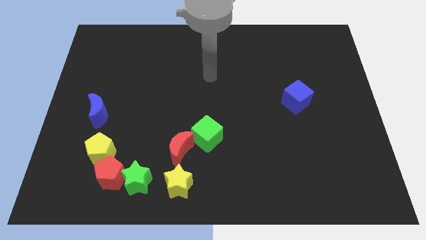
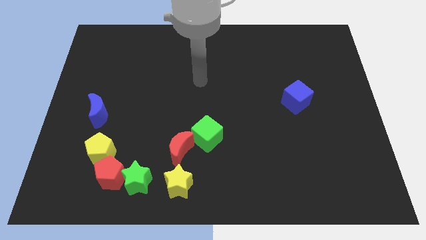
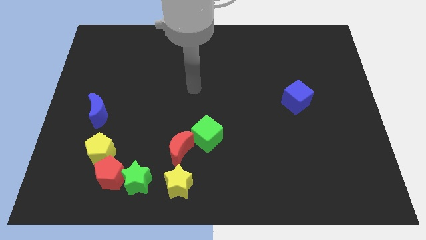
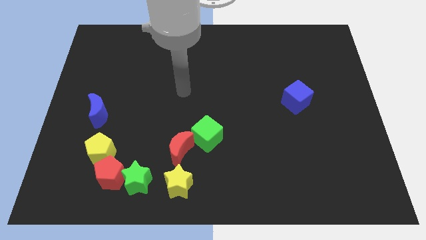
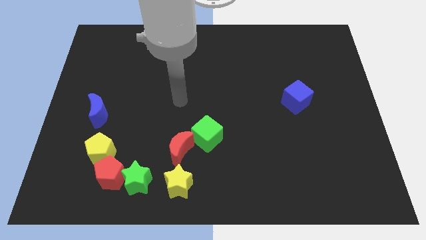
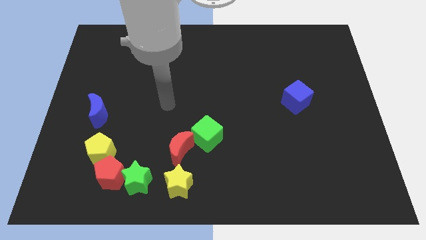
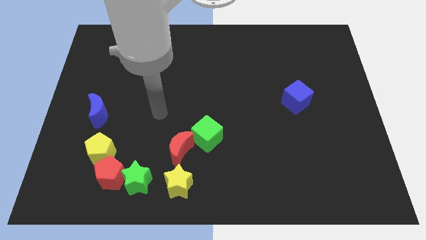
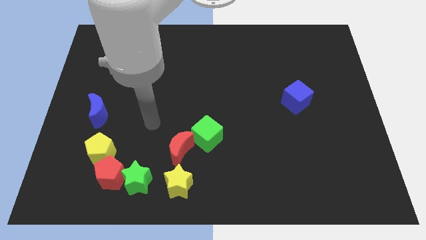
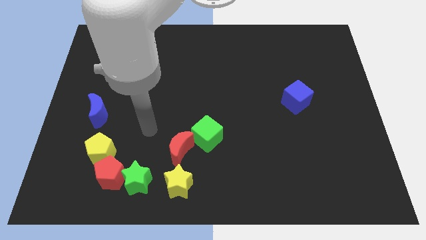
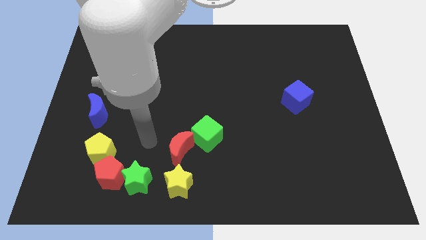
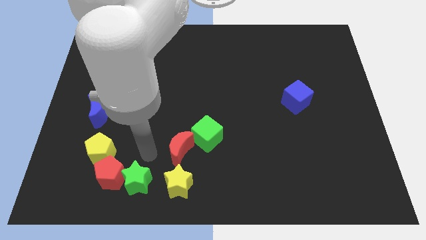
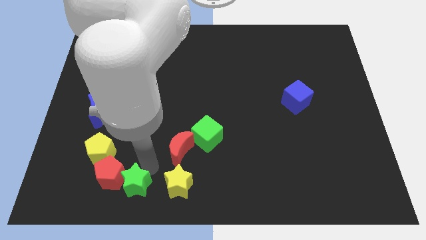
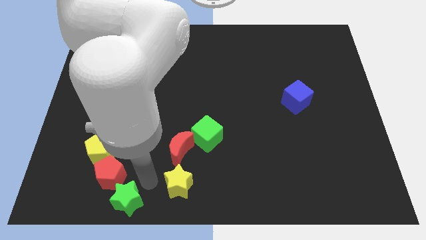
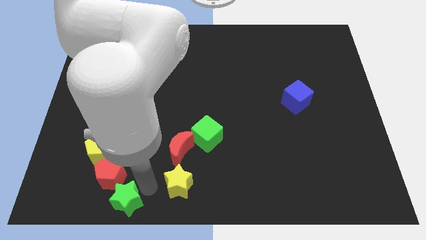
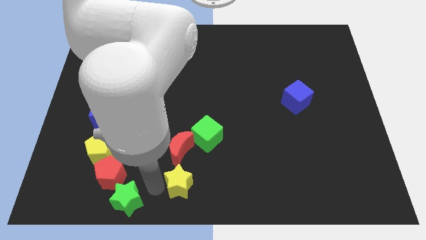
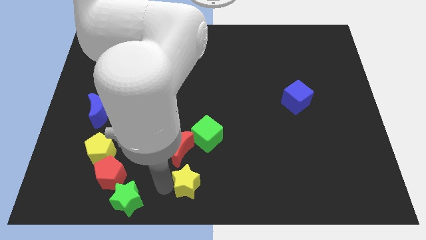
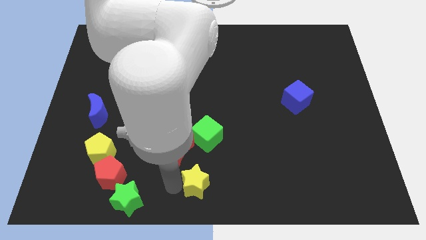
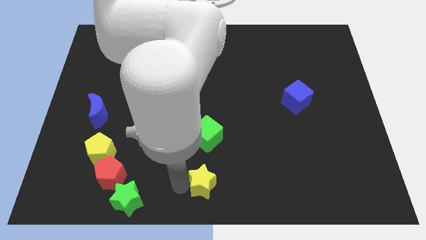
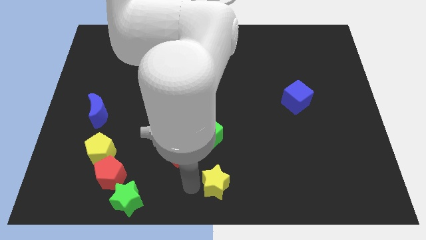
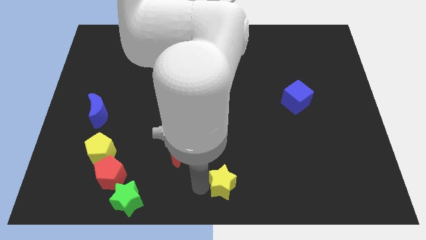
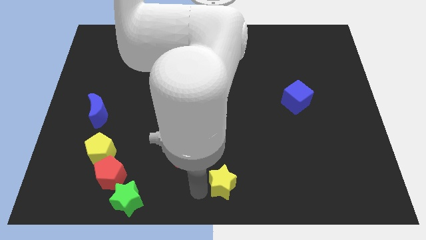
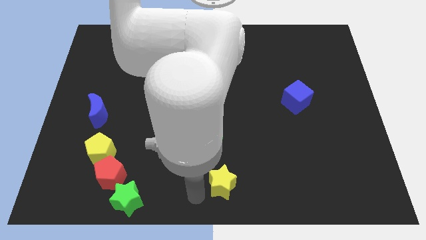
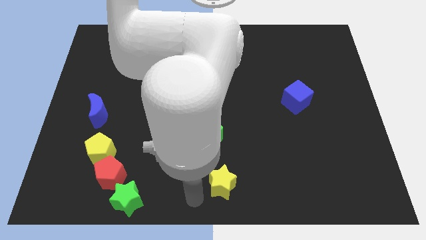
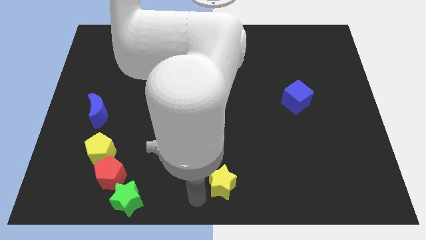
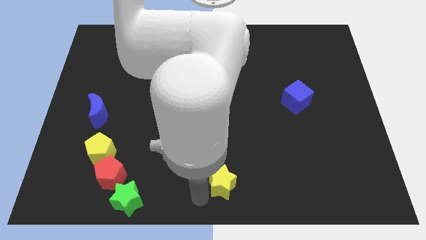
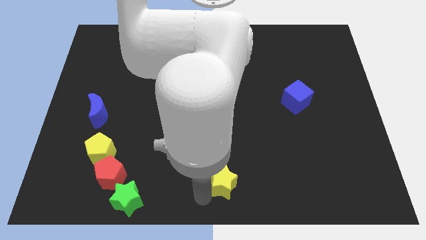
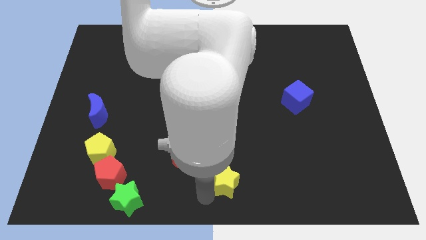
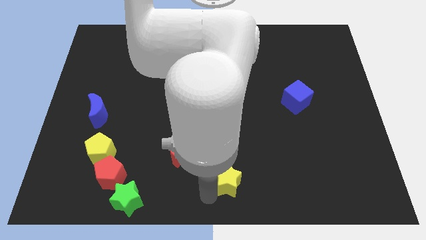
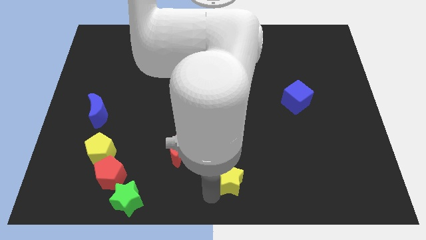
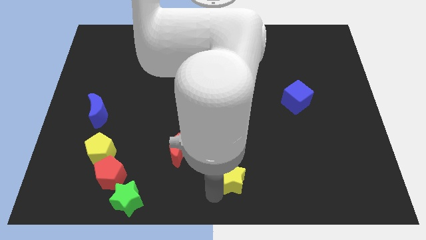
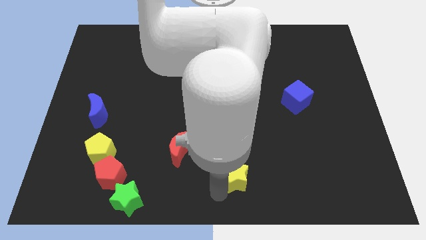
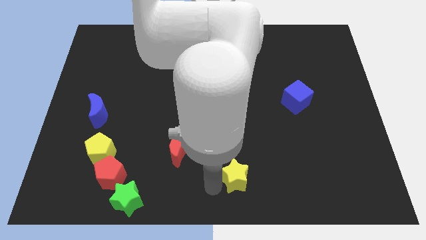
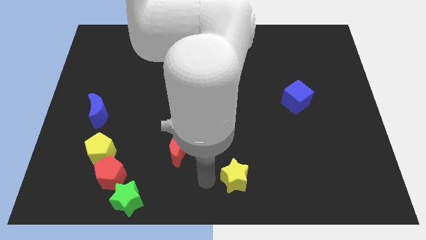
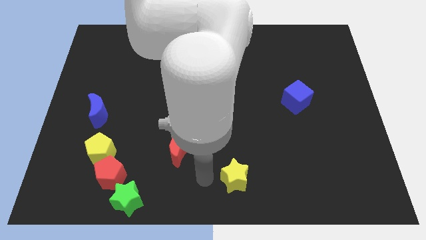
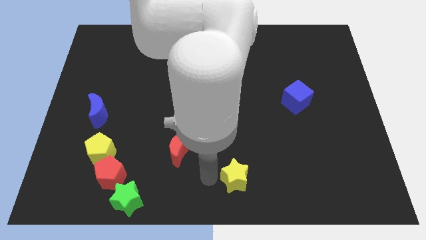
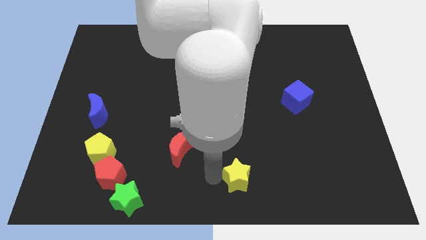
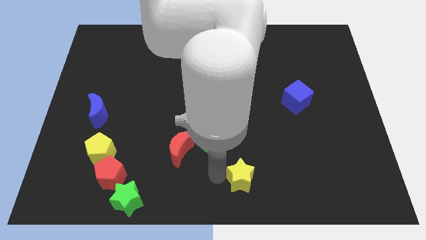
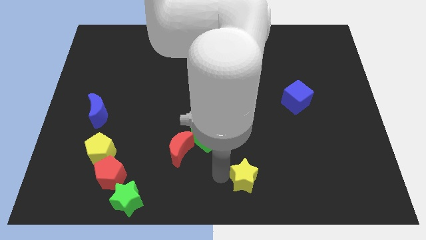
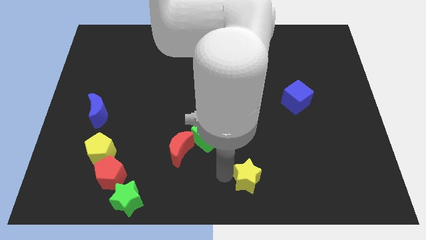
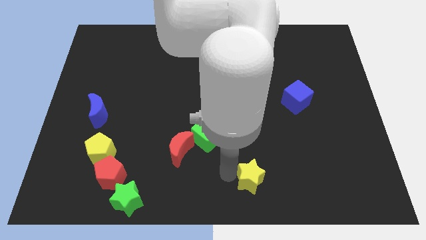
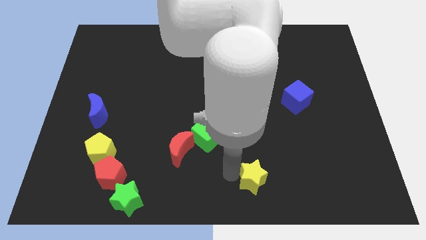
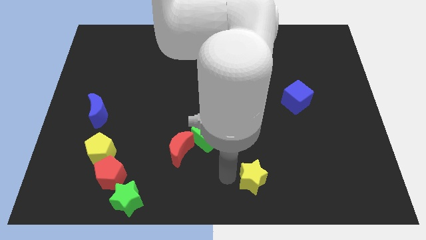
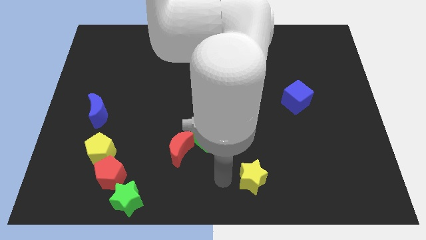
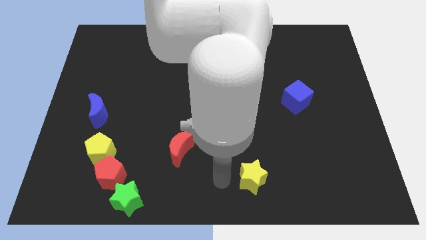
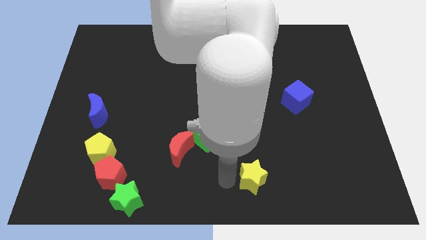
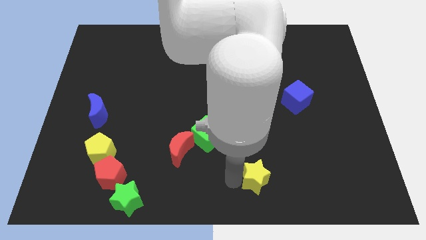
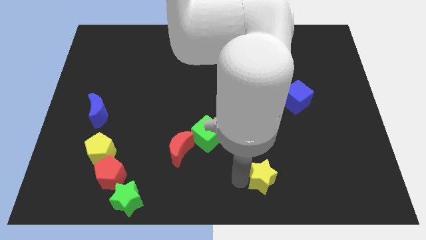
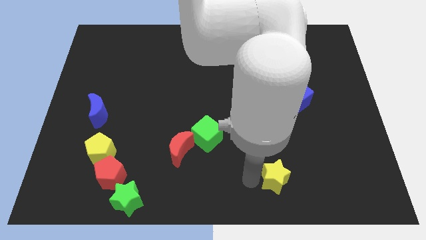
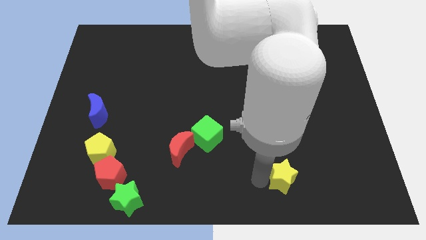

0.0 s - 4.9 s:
slide the yellow star to the right

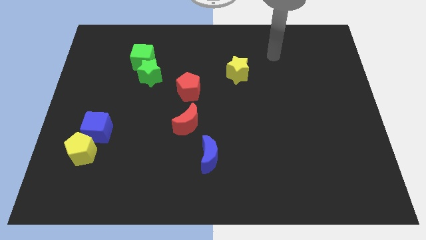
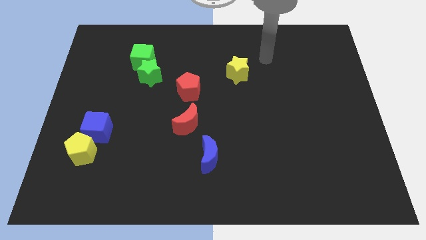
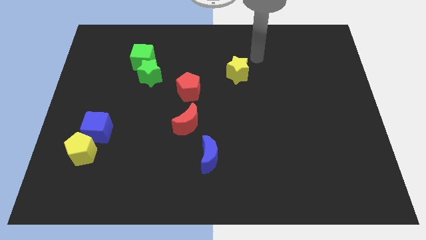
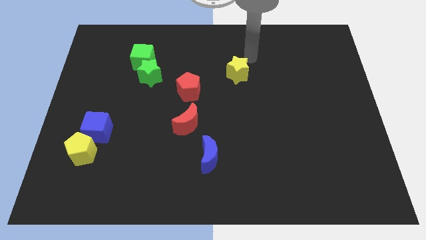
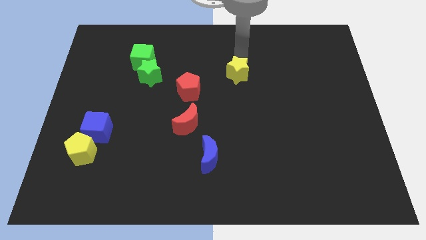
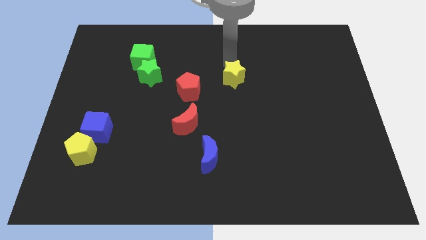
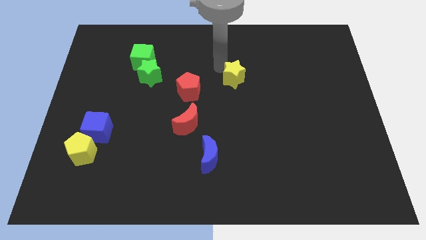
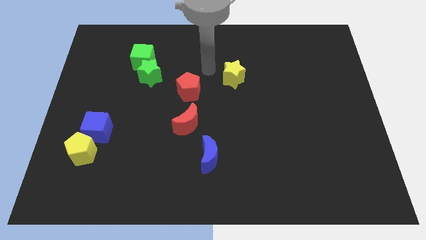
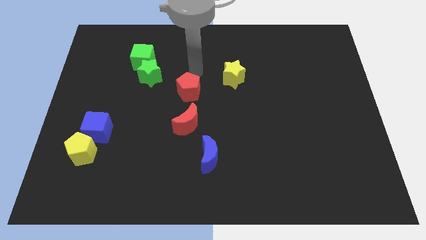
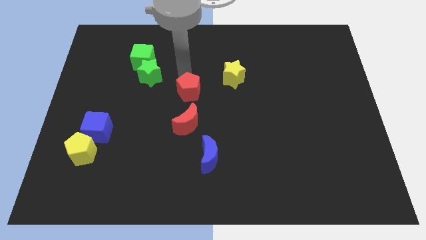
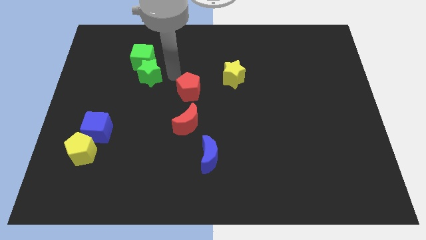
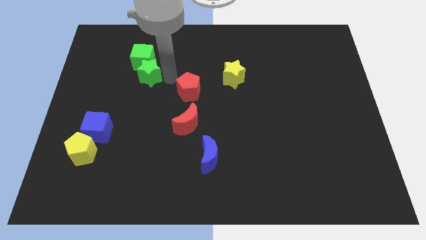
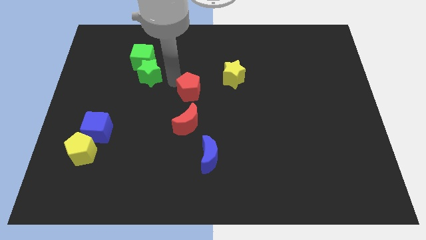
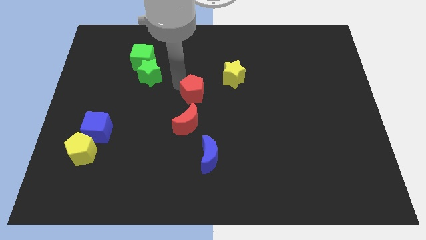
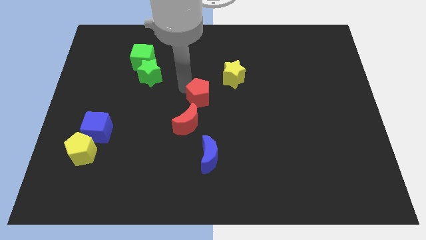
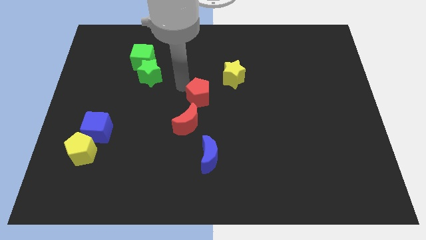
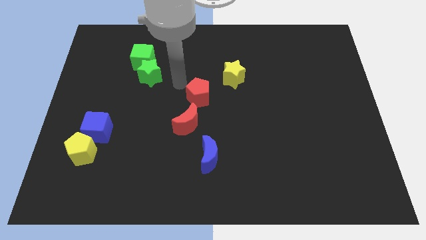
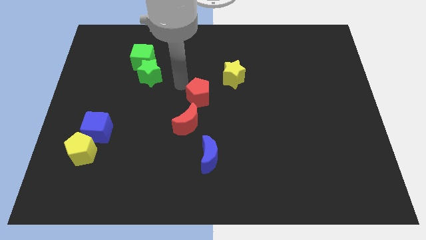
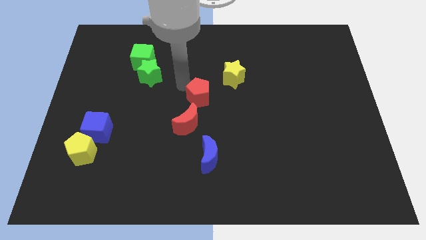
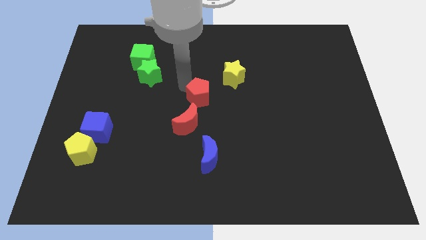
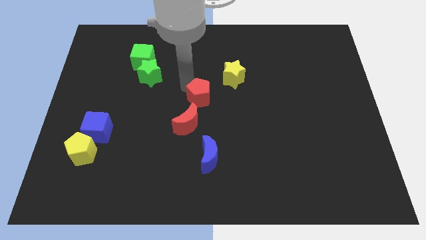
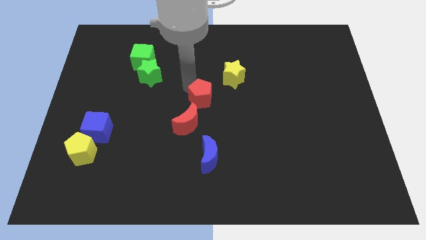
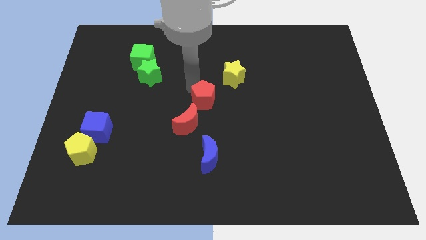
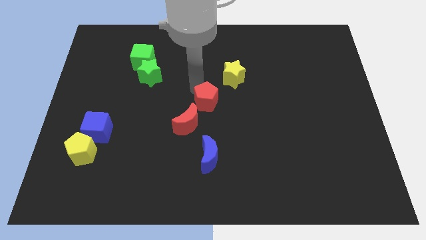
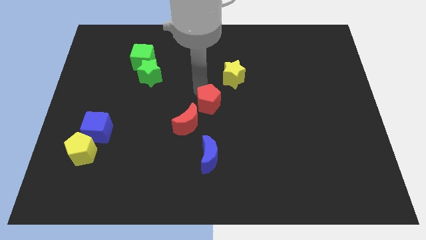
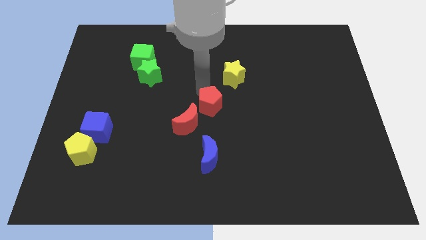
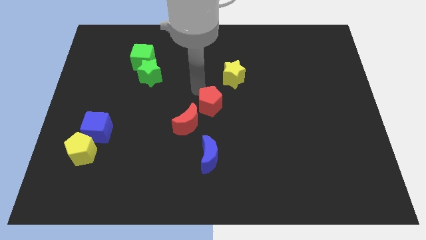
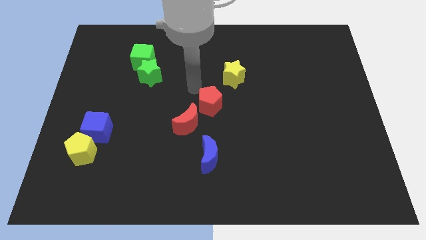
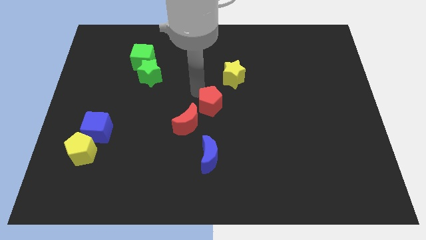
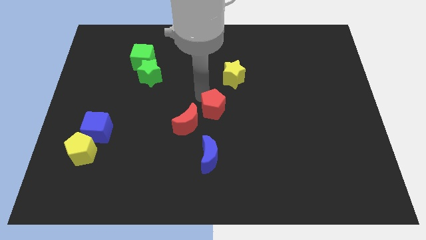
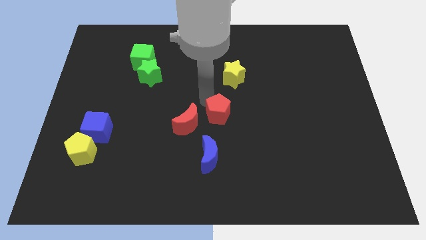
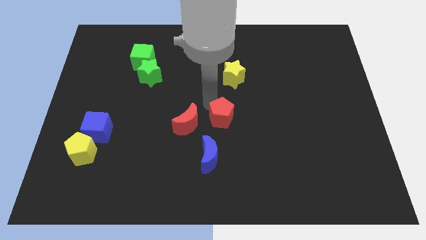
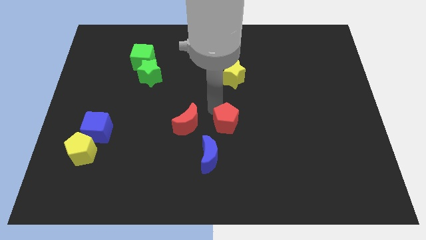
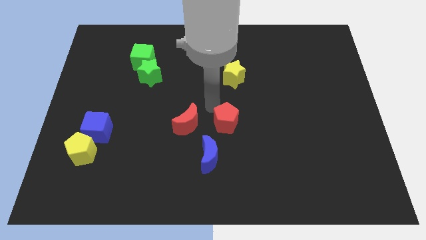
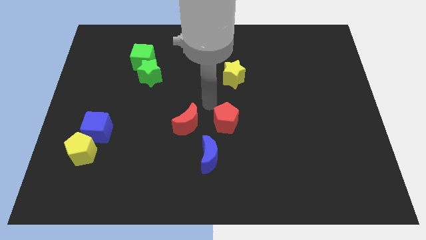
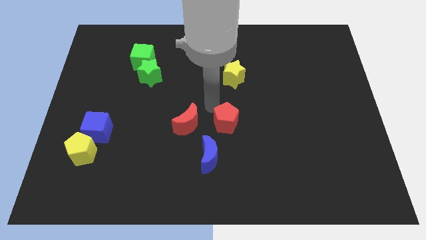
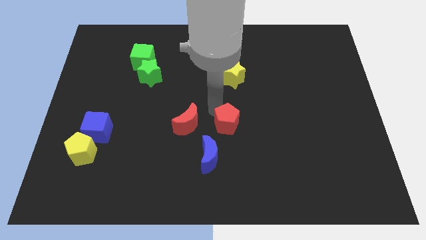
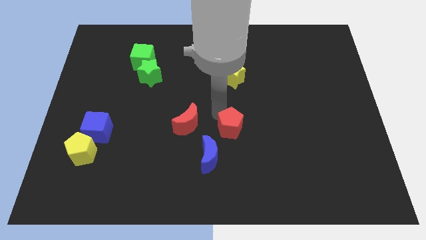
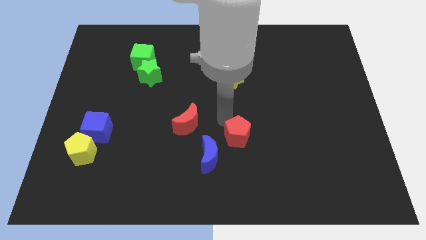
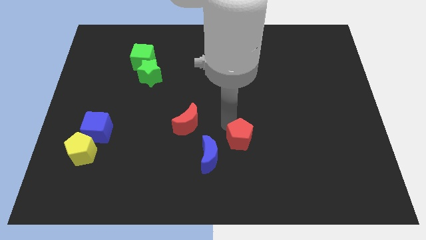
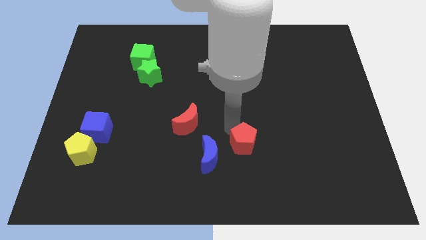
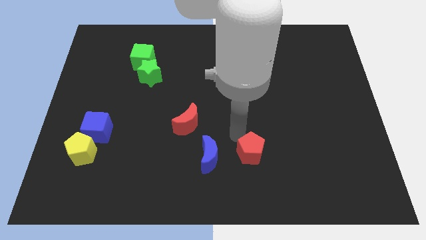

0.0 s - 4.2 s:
slide the red pentagon down and right
